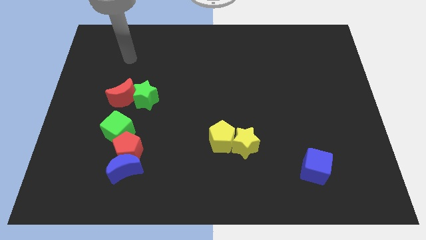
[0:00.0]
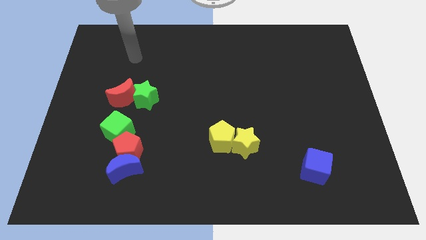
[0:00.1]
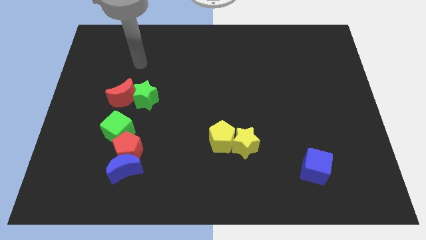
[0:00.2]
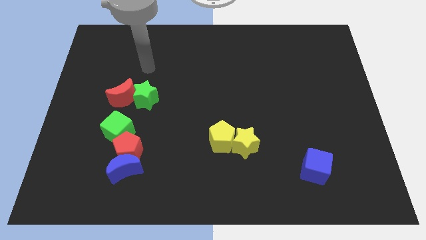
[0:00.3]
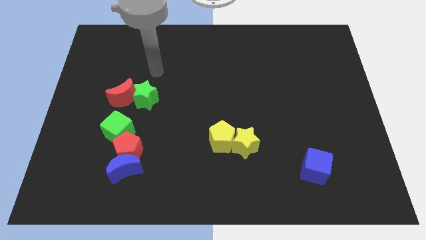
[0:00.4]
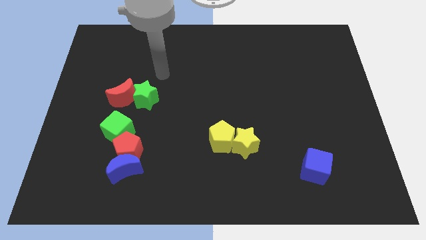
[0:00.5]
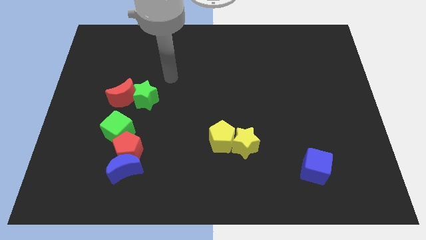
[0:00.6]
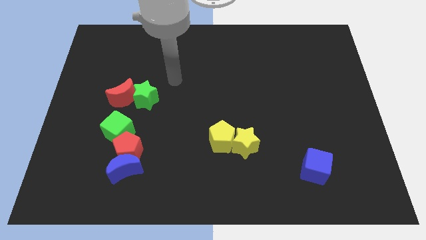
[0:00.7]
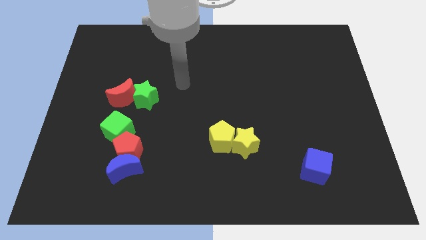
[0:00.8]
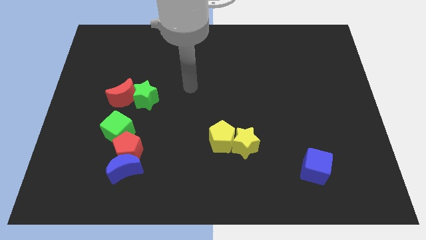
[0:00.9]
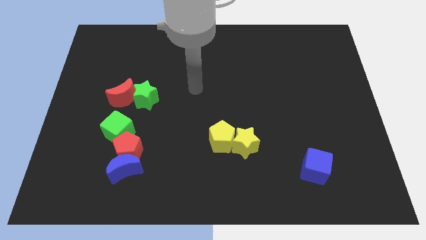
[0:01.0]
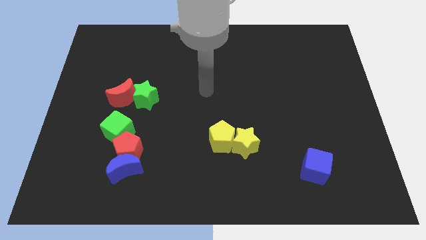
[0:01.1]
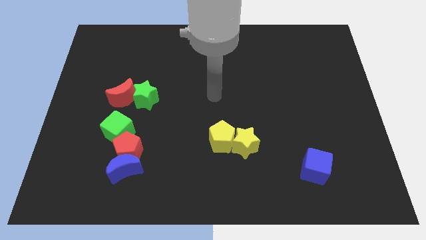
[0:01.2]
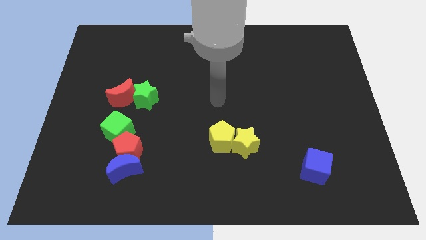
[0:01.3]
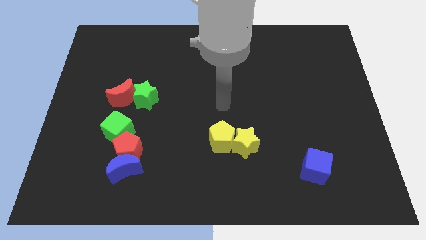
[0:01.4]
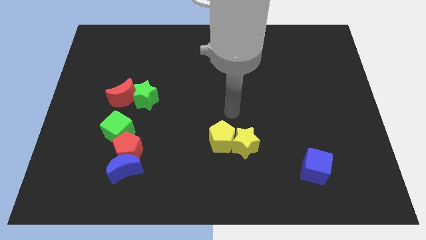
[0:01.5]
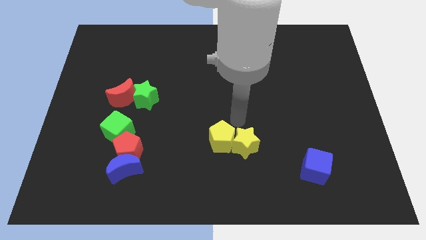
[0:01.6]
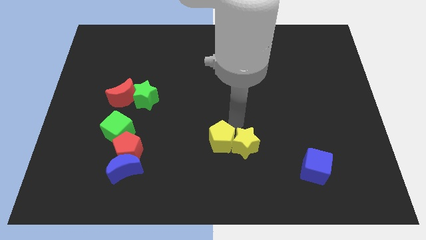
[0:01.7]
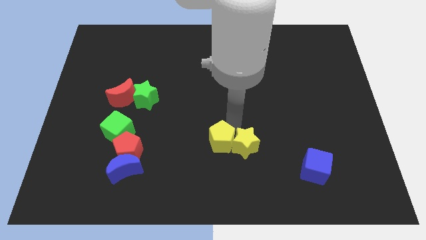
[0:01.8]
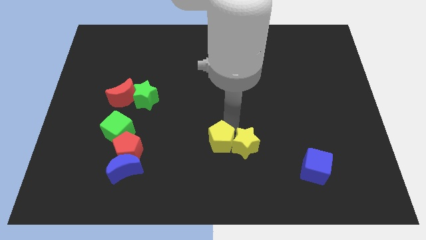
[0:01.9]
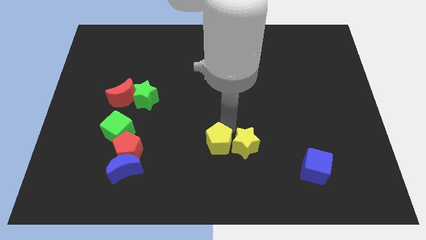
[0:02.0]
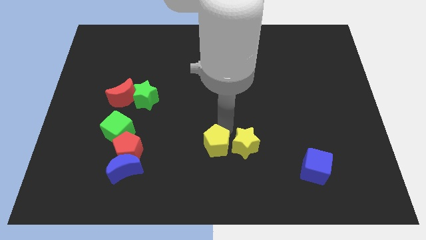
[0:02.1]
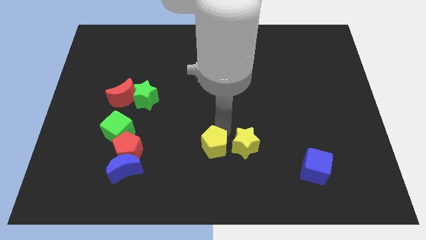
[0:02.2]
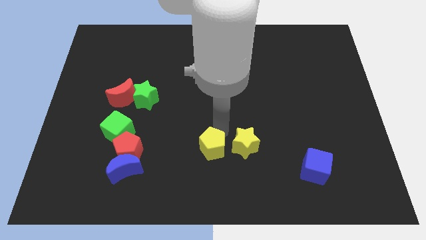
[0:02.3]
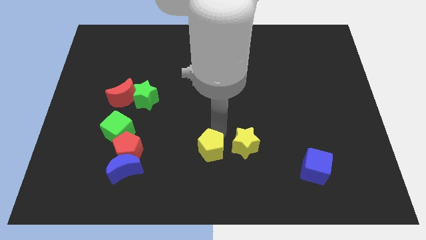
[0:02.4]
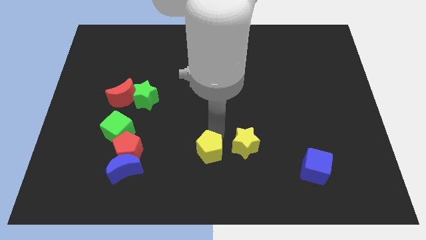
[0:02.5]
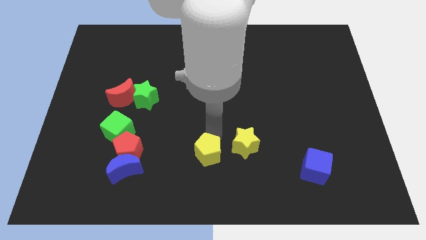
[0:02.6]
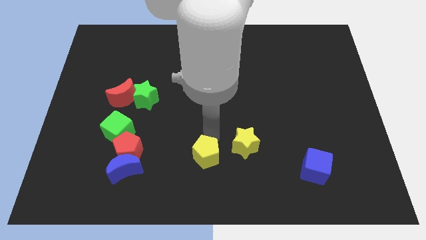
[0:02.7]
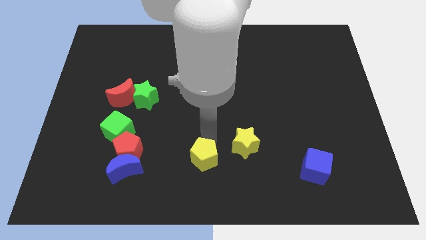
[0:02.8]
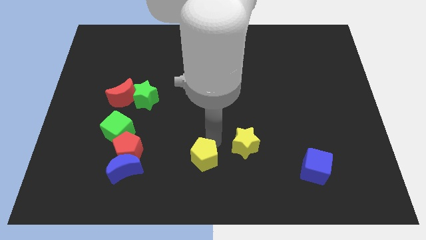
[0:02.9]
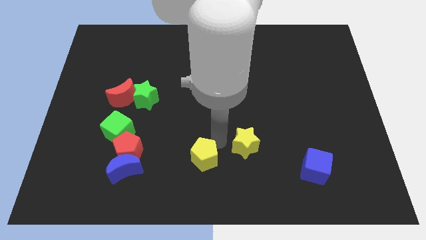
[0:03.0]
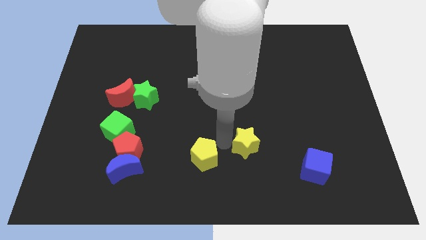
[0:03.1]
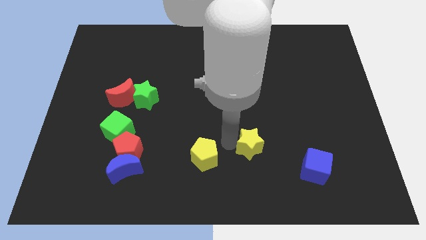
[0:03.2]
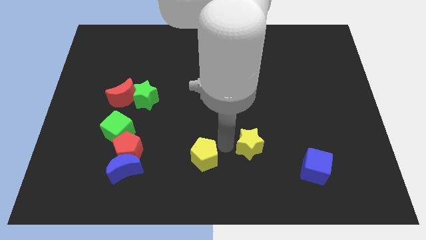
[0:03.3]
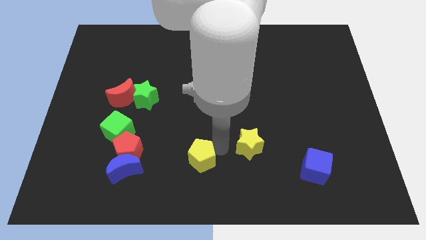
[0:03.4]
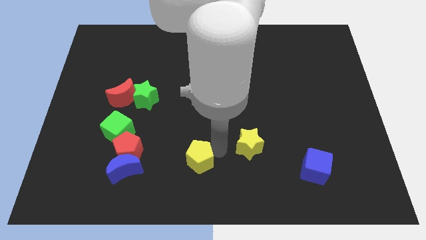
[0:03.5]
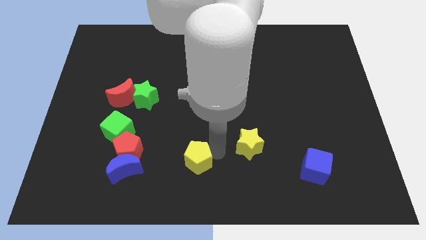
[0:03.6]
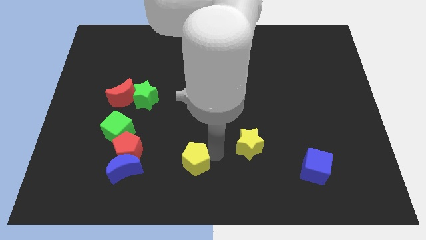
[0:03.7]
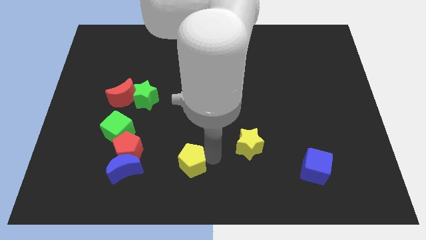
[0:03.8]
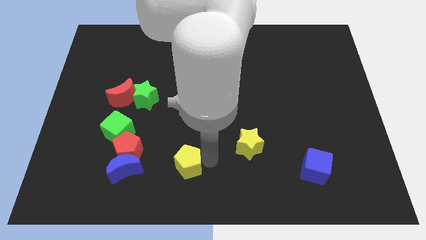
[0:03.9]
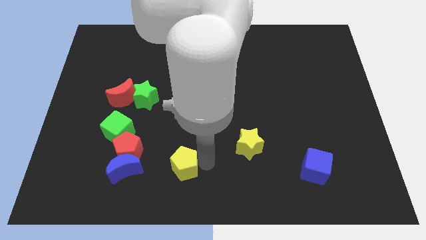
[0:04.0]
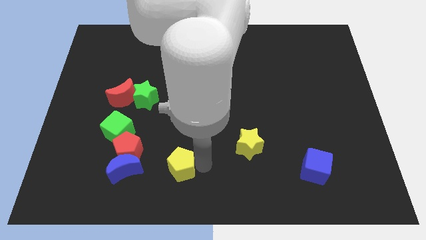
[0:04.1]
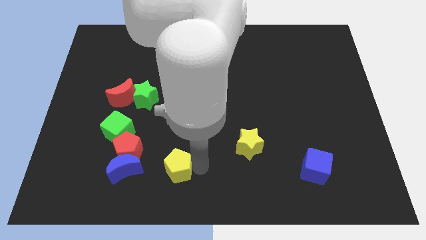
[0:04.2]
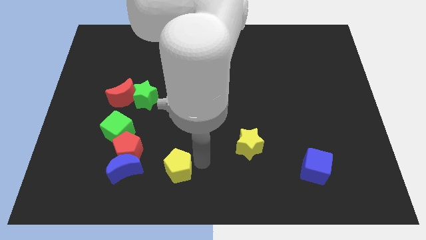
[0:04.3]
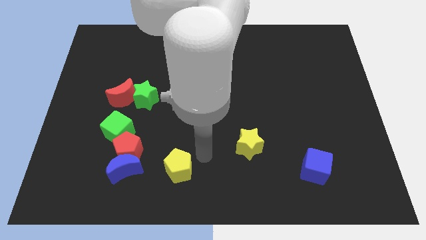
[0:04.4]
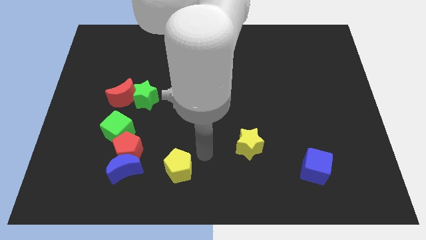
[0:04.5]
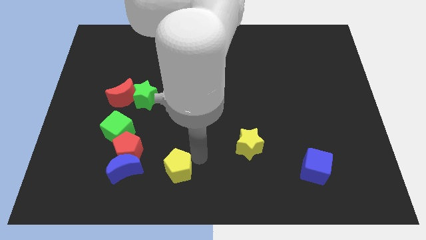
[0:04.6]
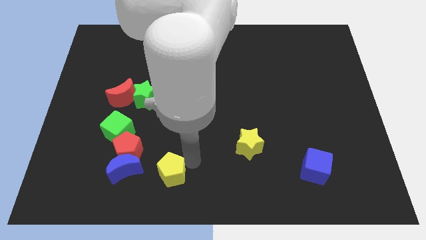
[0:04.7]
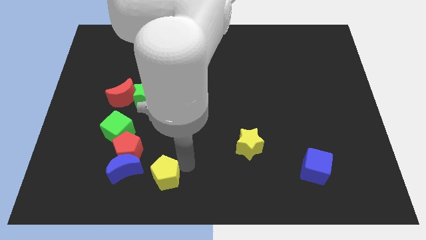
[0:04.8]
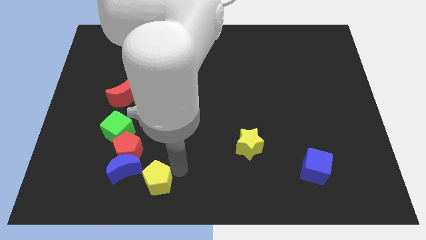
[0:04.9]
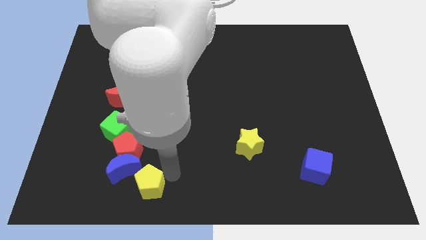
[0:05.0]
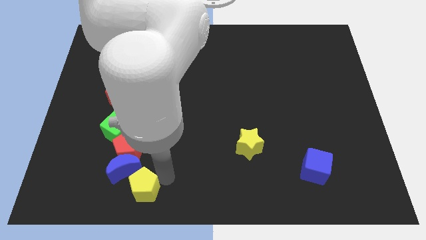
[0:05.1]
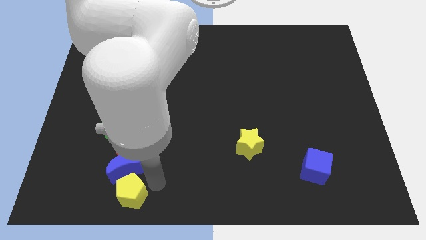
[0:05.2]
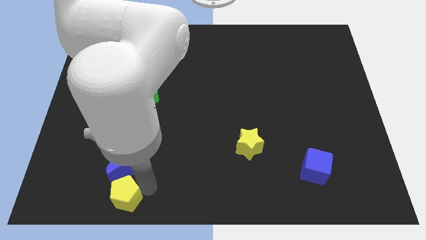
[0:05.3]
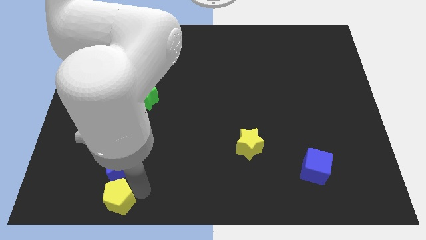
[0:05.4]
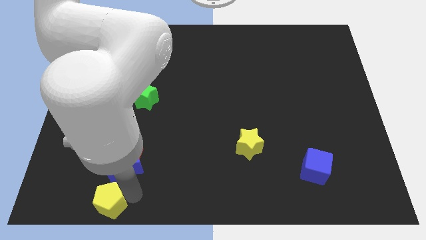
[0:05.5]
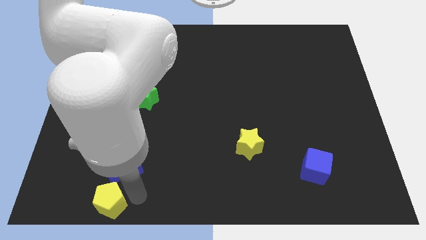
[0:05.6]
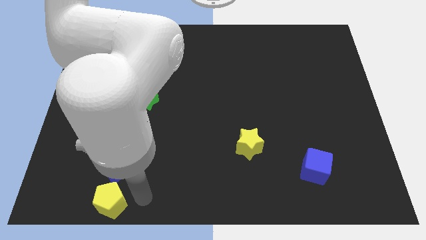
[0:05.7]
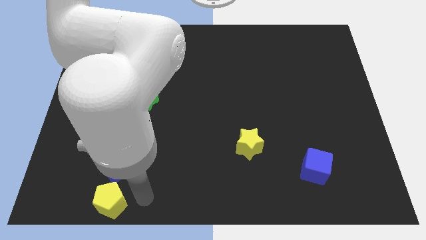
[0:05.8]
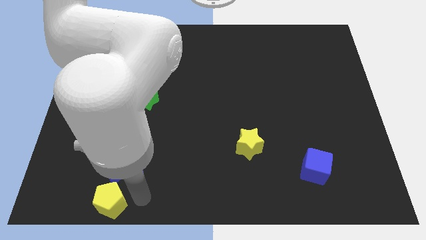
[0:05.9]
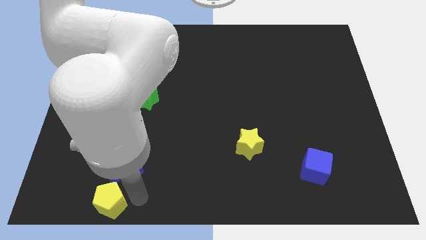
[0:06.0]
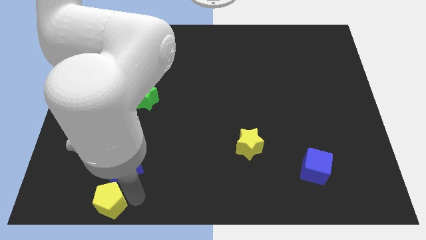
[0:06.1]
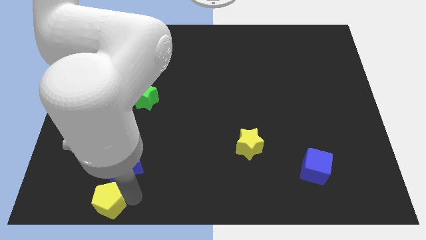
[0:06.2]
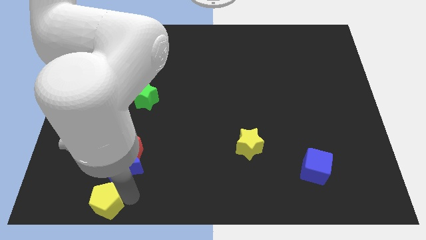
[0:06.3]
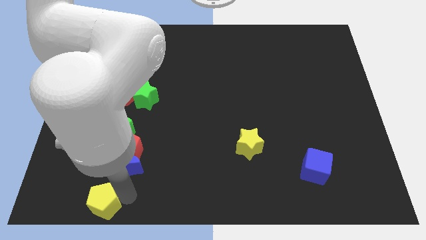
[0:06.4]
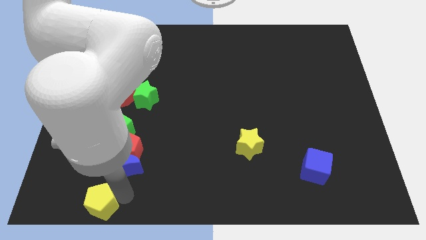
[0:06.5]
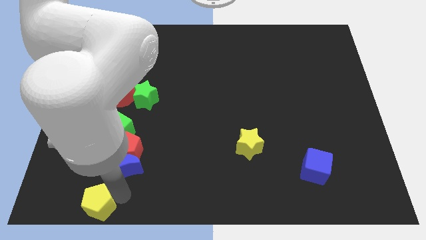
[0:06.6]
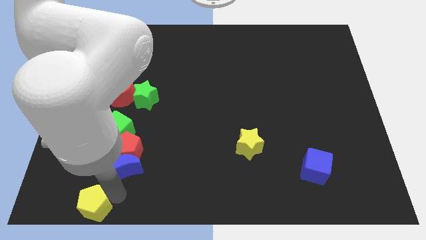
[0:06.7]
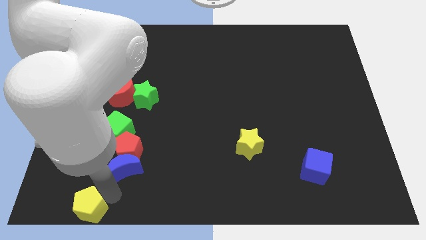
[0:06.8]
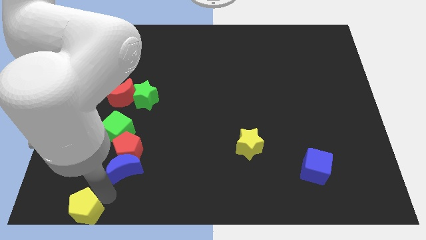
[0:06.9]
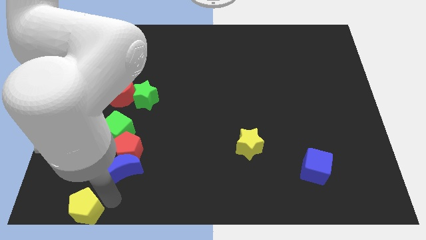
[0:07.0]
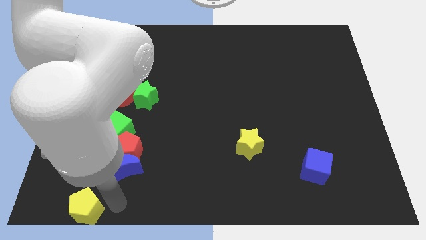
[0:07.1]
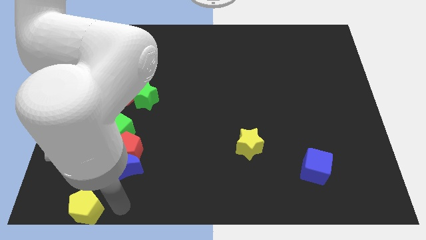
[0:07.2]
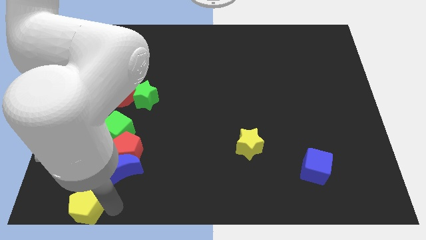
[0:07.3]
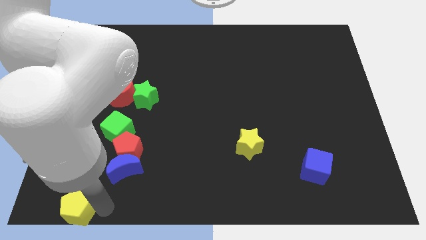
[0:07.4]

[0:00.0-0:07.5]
put the yellow pentagon to the lower left corner
